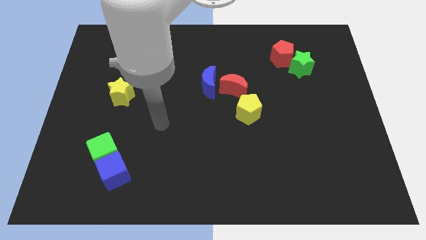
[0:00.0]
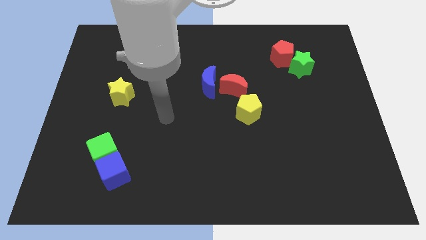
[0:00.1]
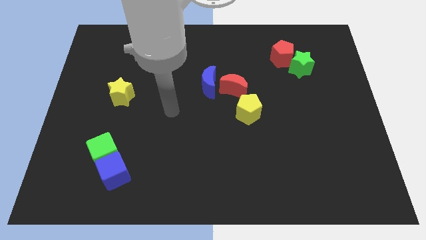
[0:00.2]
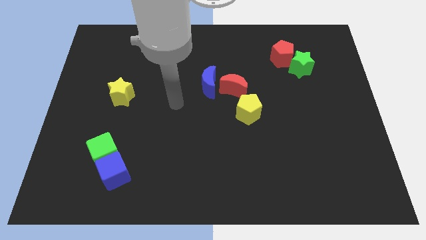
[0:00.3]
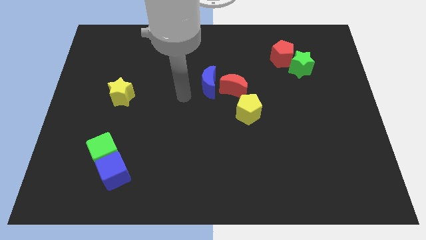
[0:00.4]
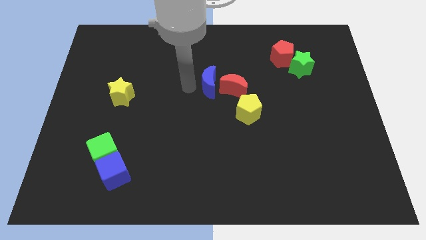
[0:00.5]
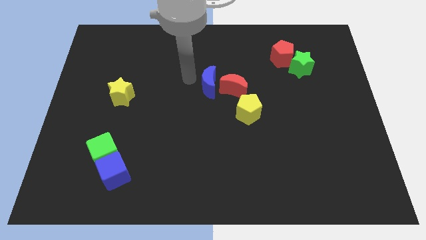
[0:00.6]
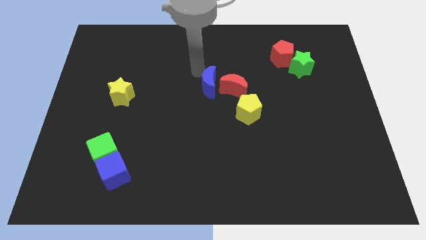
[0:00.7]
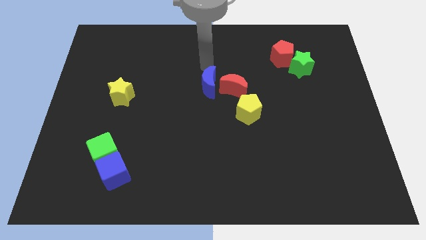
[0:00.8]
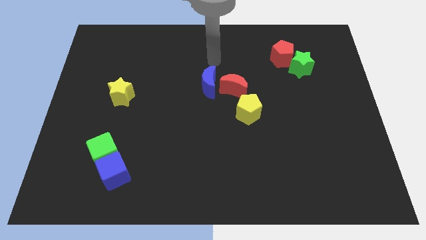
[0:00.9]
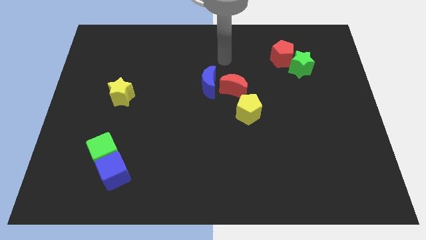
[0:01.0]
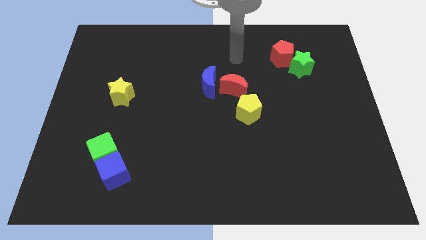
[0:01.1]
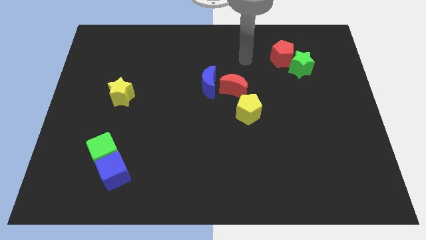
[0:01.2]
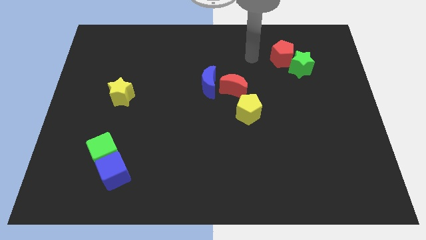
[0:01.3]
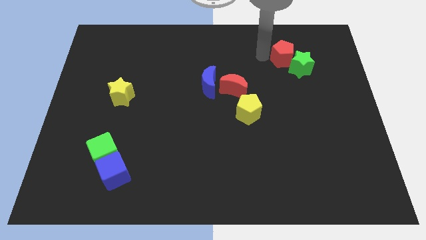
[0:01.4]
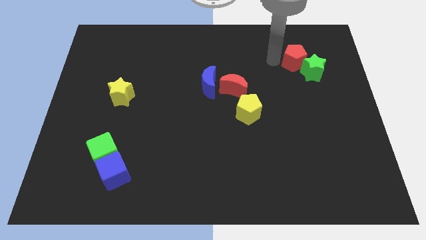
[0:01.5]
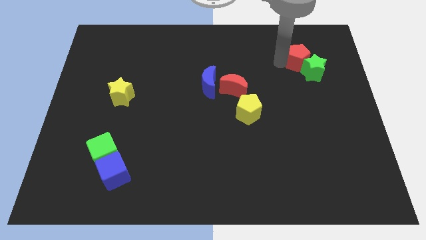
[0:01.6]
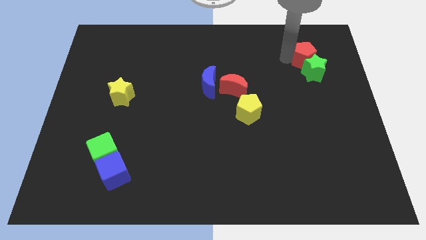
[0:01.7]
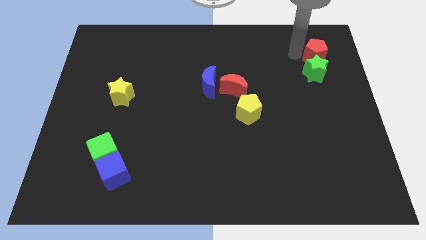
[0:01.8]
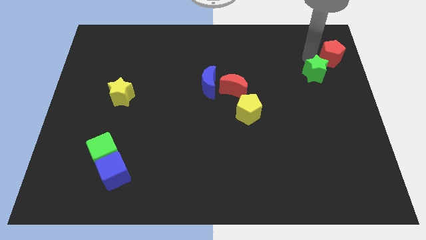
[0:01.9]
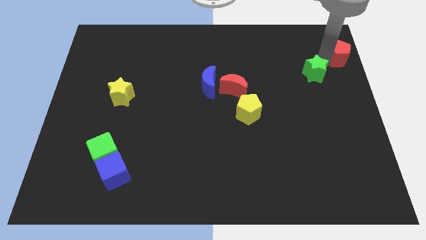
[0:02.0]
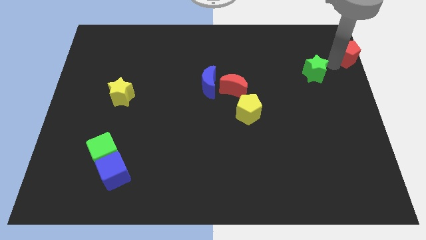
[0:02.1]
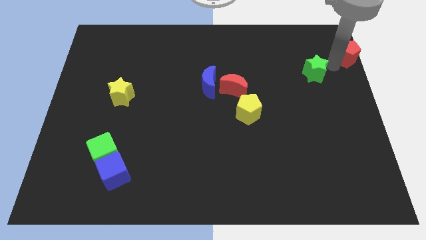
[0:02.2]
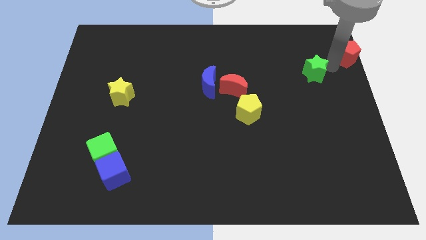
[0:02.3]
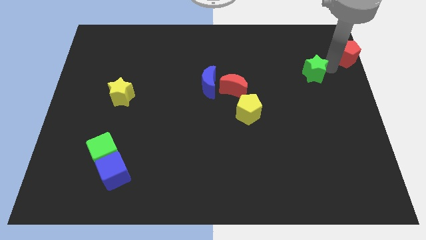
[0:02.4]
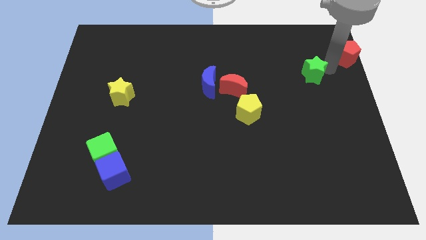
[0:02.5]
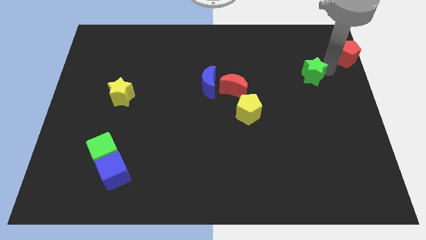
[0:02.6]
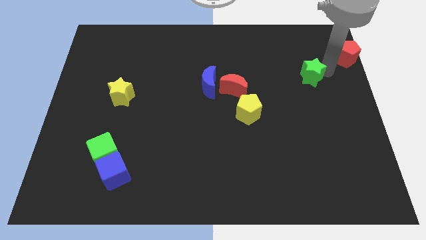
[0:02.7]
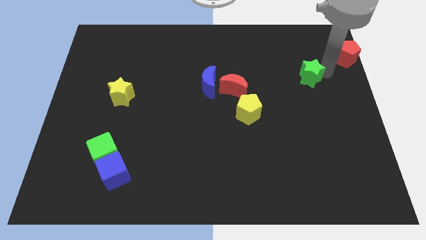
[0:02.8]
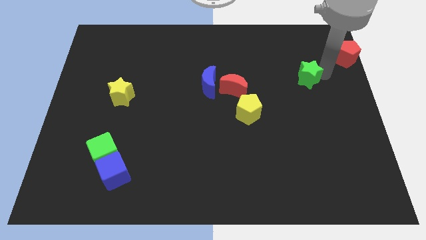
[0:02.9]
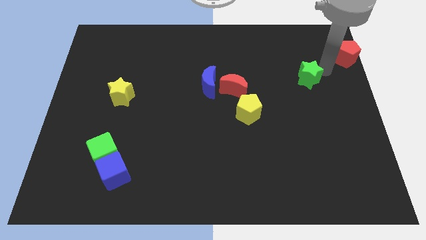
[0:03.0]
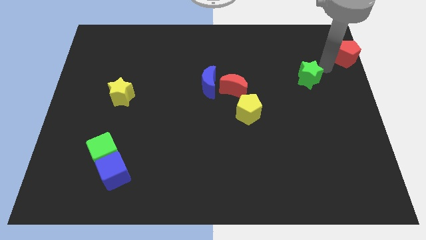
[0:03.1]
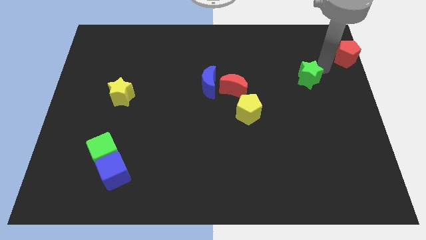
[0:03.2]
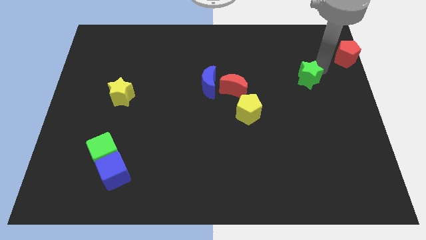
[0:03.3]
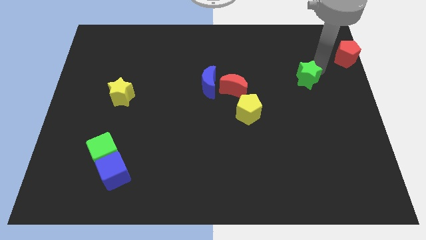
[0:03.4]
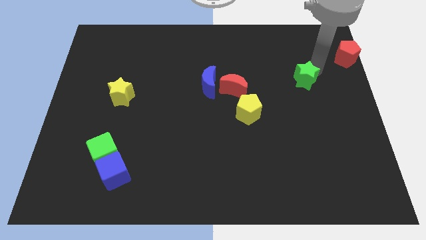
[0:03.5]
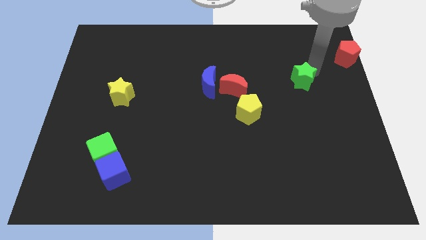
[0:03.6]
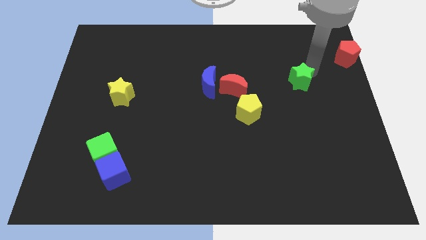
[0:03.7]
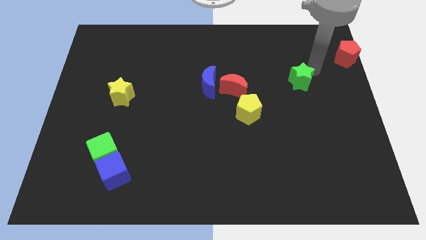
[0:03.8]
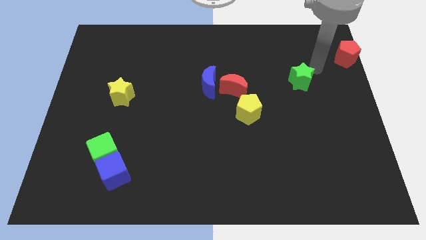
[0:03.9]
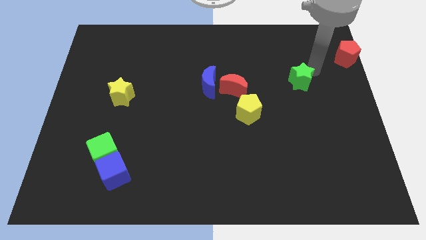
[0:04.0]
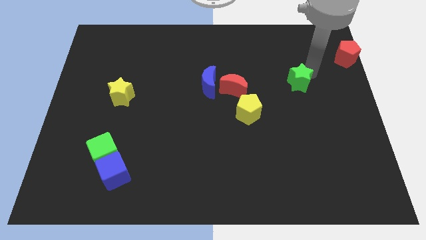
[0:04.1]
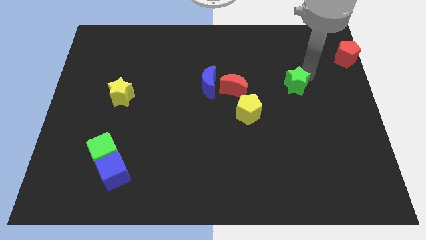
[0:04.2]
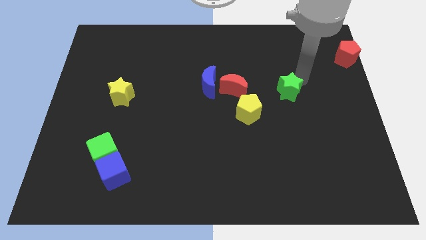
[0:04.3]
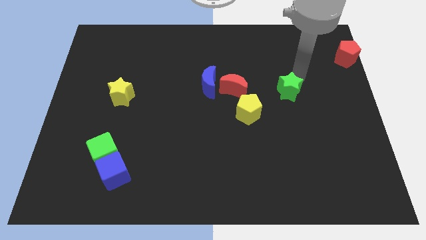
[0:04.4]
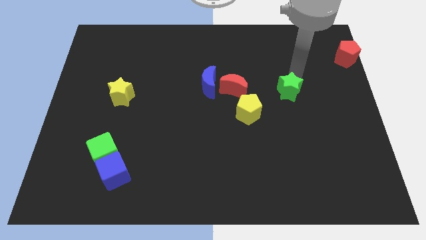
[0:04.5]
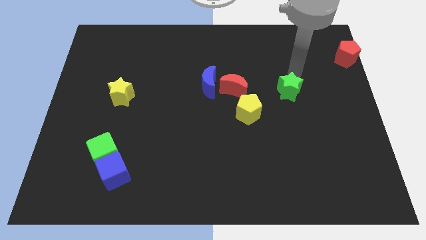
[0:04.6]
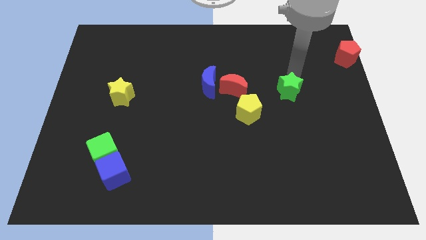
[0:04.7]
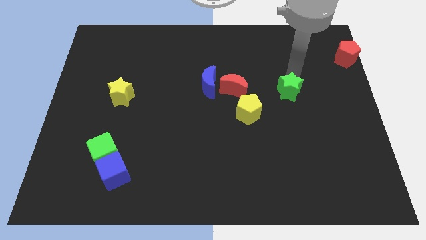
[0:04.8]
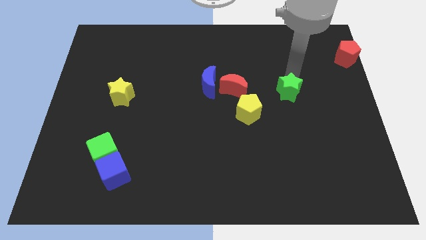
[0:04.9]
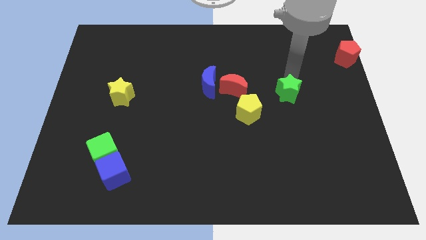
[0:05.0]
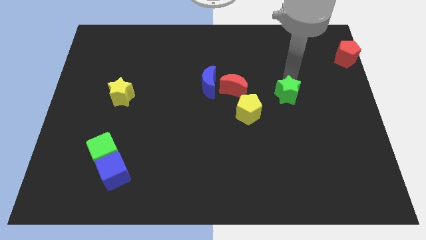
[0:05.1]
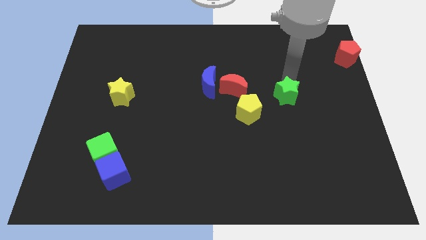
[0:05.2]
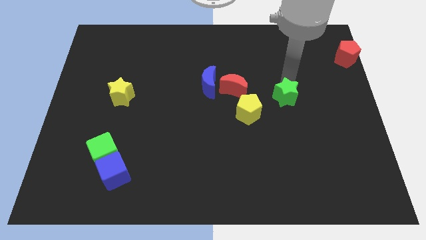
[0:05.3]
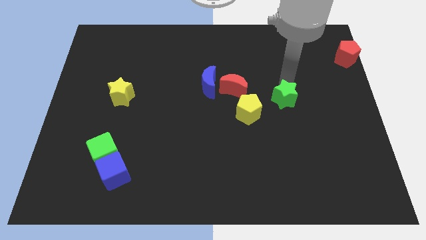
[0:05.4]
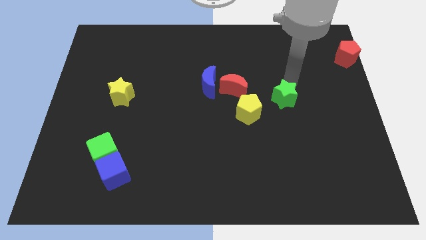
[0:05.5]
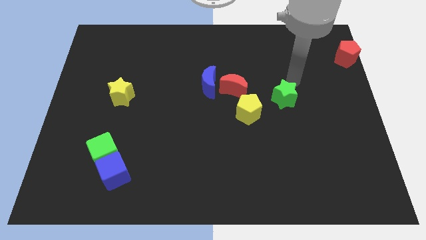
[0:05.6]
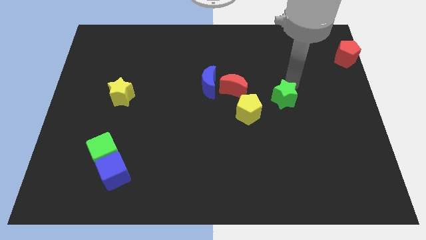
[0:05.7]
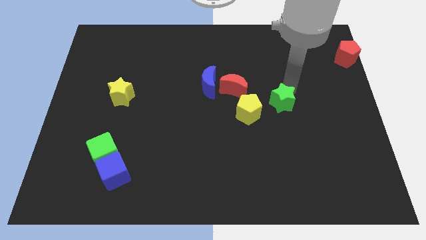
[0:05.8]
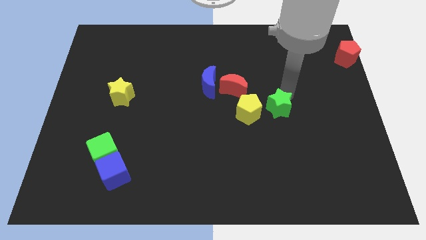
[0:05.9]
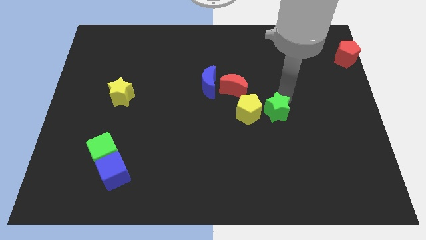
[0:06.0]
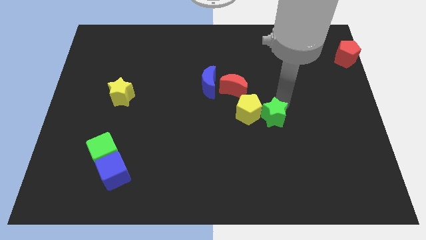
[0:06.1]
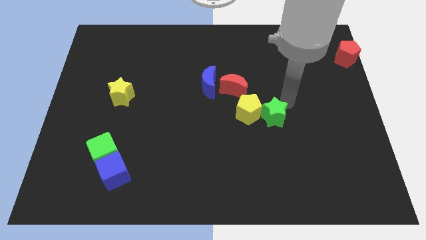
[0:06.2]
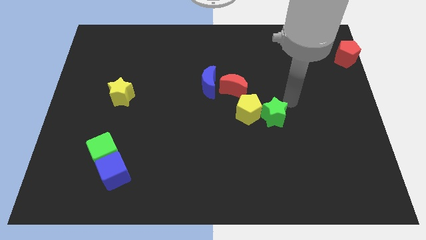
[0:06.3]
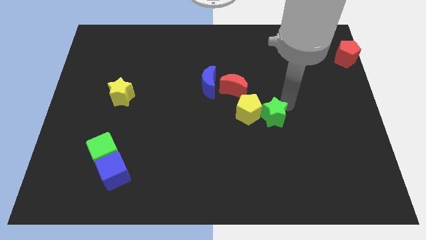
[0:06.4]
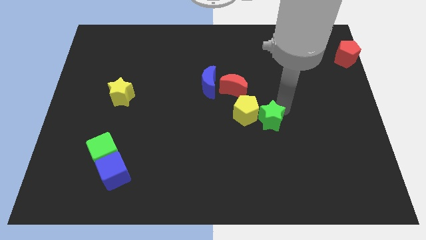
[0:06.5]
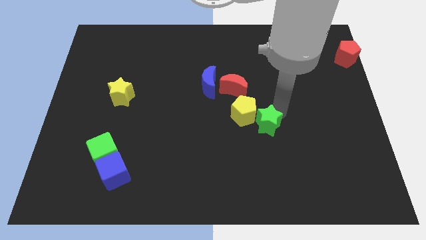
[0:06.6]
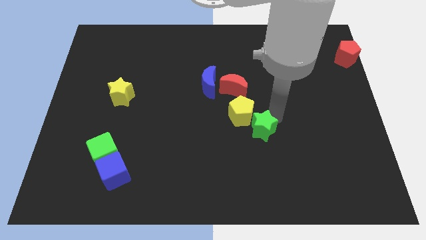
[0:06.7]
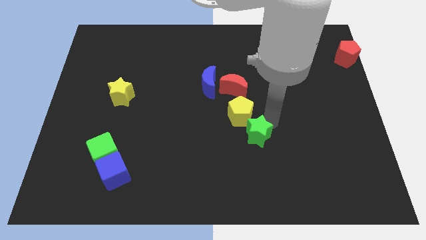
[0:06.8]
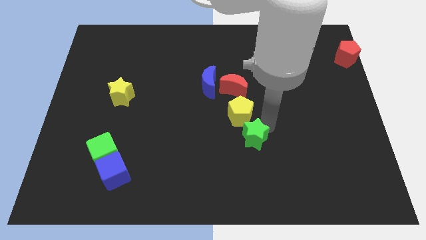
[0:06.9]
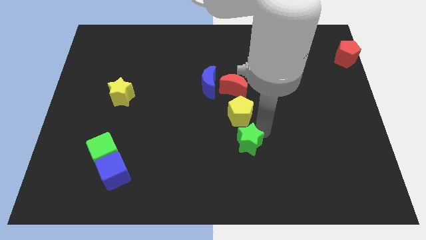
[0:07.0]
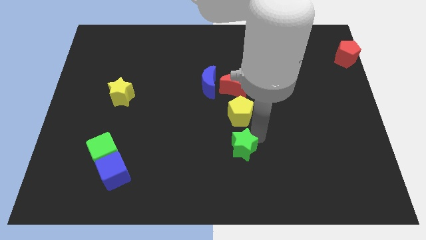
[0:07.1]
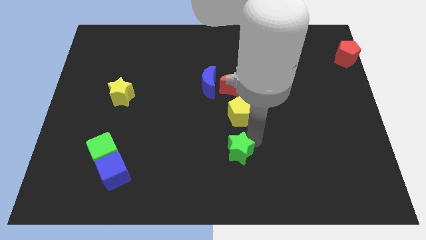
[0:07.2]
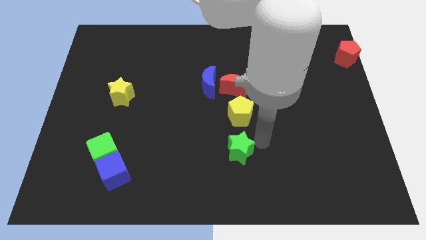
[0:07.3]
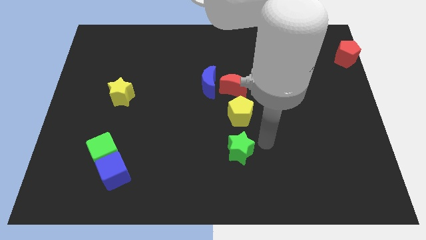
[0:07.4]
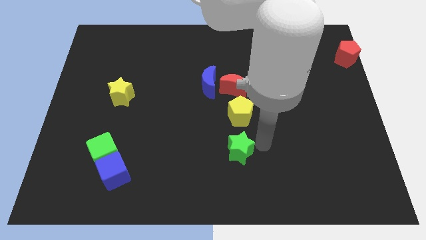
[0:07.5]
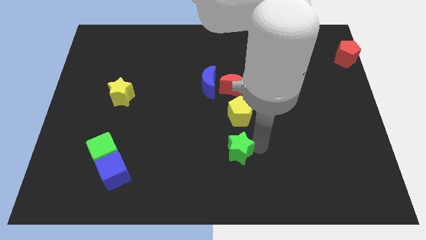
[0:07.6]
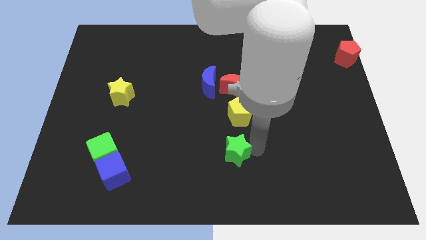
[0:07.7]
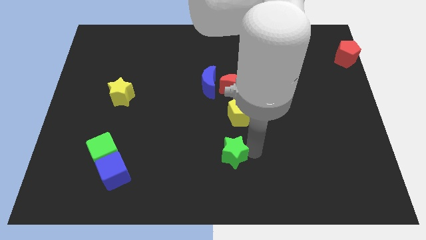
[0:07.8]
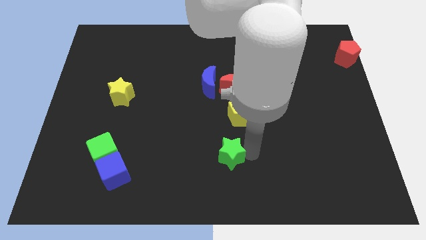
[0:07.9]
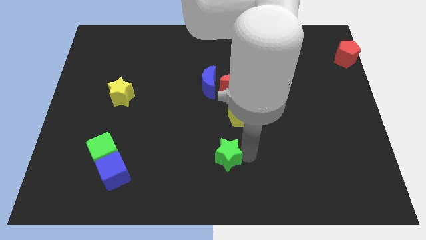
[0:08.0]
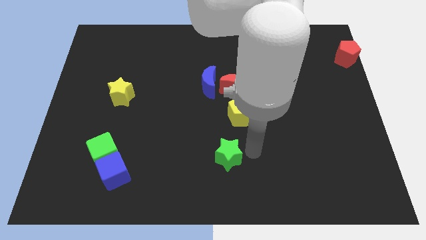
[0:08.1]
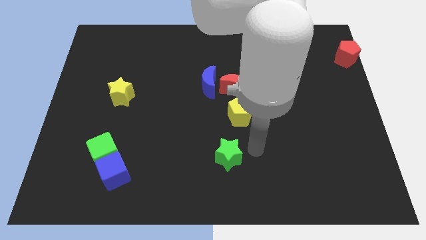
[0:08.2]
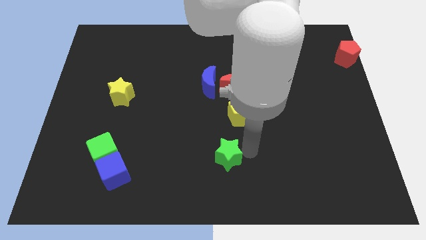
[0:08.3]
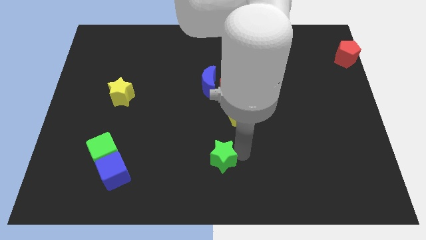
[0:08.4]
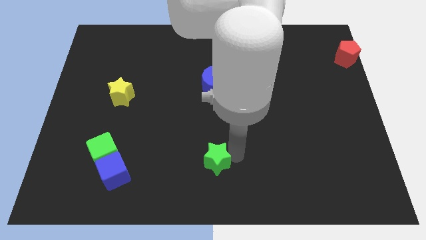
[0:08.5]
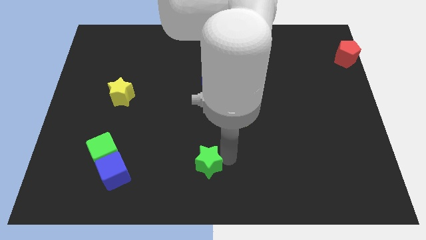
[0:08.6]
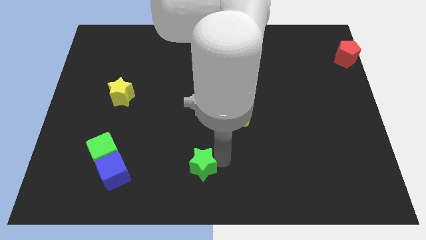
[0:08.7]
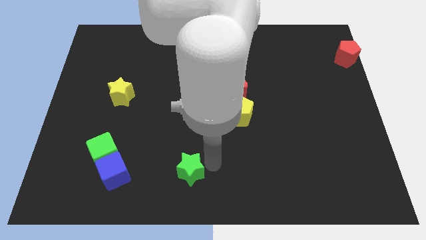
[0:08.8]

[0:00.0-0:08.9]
put the green star to the right of the blue cube
